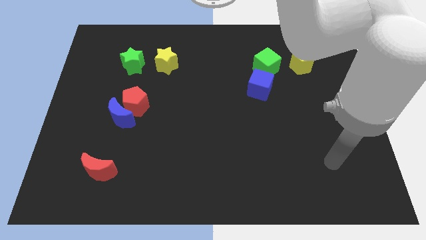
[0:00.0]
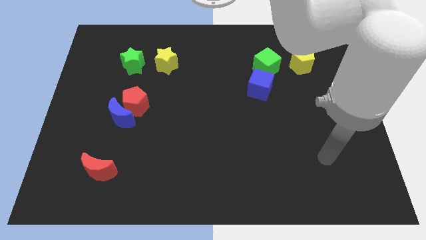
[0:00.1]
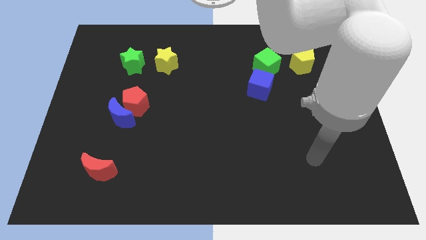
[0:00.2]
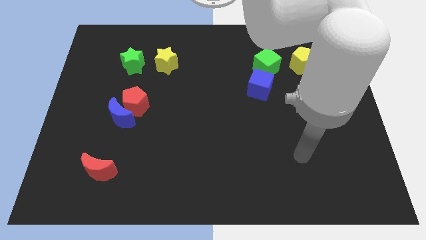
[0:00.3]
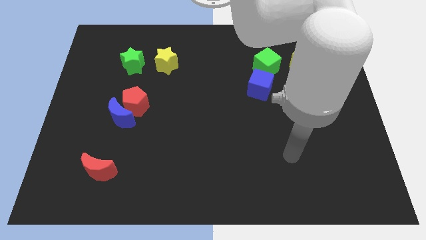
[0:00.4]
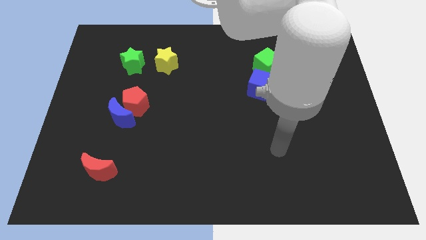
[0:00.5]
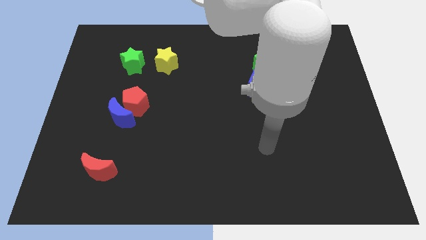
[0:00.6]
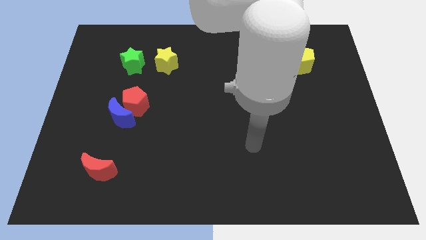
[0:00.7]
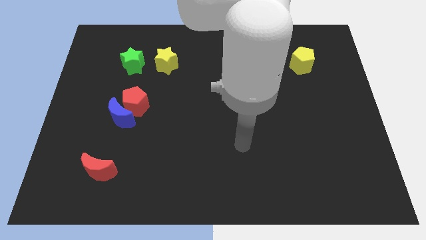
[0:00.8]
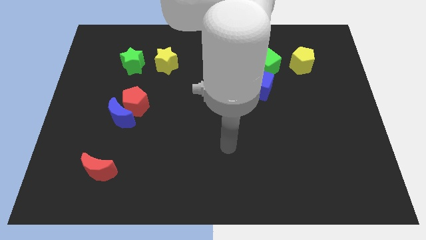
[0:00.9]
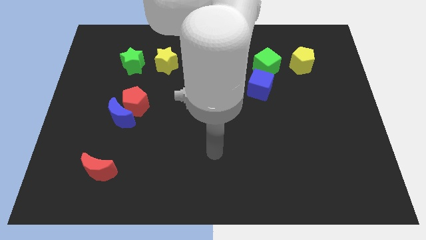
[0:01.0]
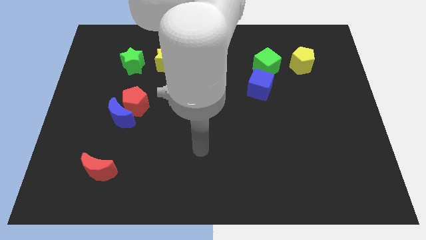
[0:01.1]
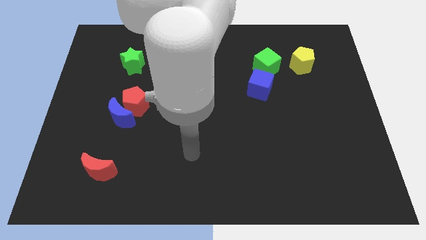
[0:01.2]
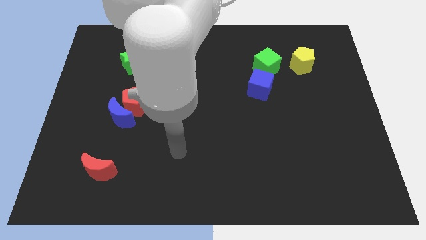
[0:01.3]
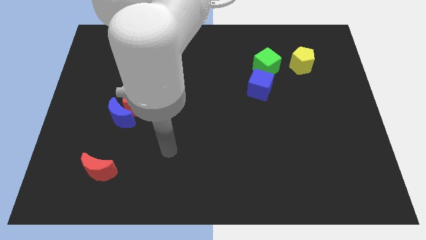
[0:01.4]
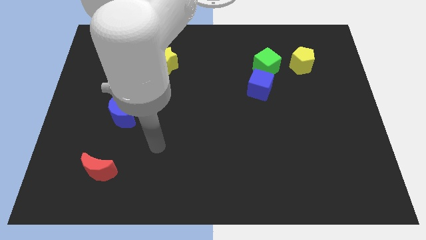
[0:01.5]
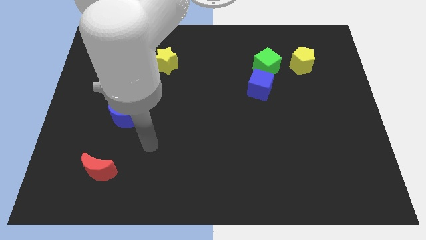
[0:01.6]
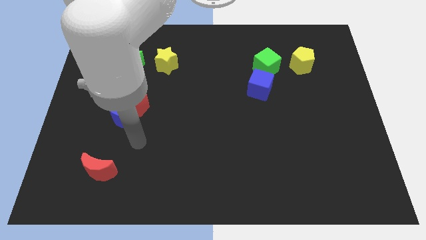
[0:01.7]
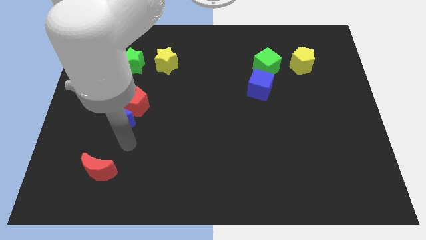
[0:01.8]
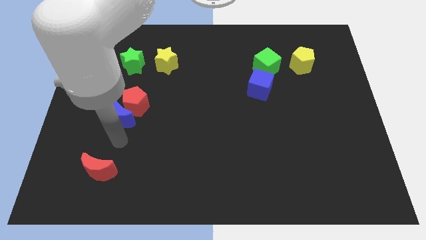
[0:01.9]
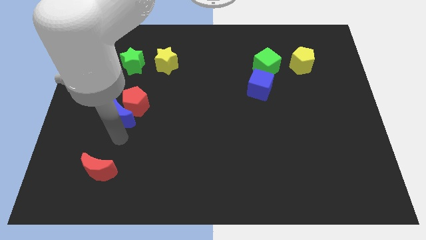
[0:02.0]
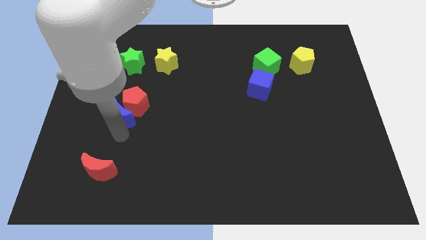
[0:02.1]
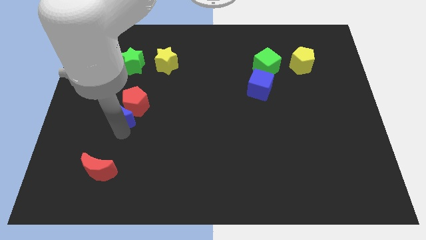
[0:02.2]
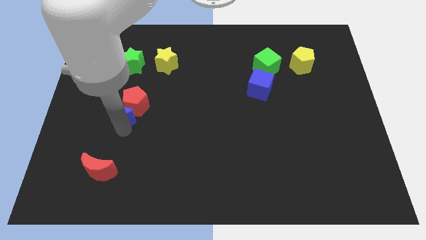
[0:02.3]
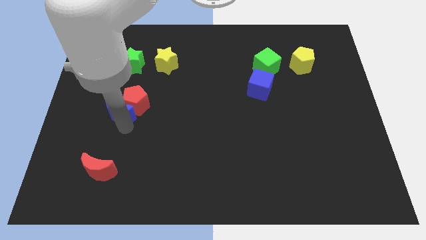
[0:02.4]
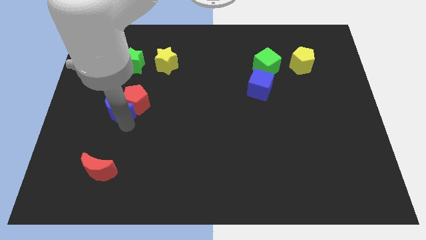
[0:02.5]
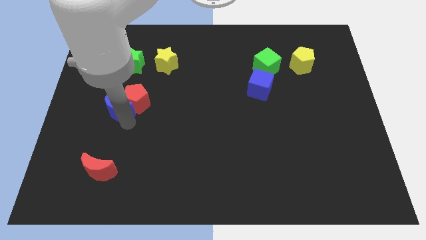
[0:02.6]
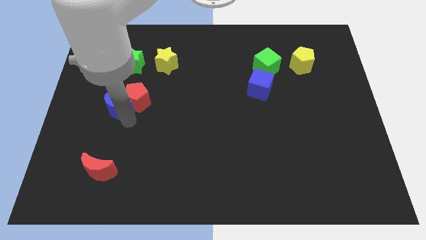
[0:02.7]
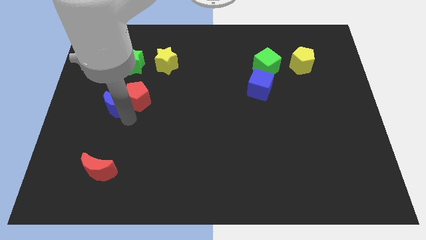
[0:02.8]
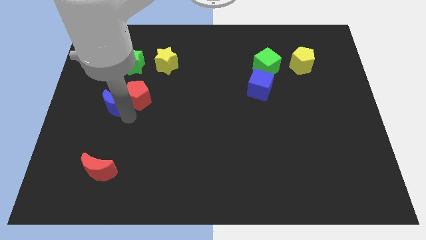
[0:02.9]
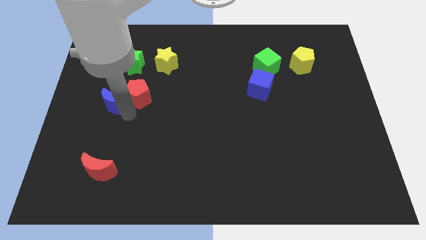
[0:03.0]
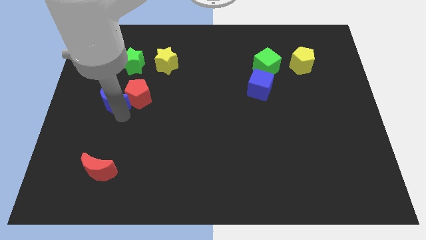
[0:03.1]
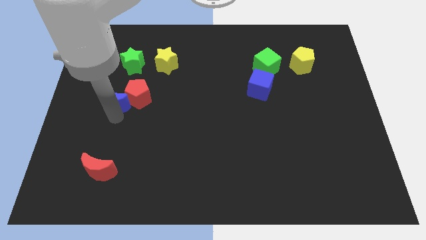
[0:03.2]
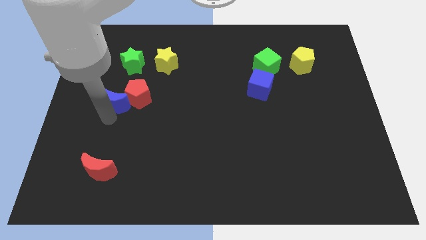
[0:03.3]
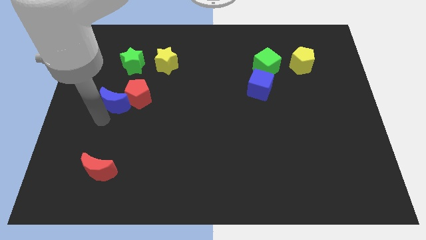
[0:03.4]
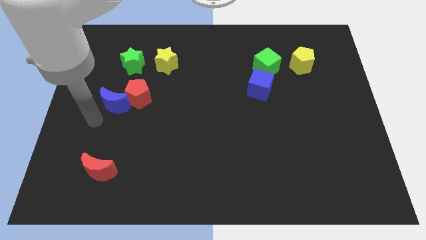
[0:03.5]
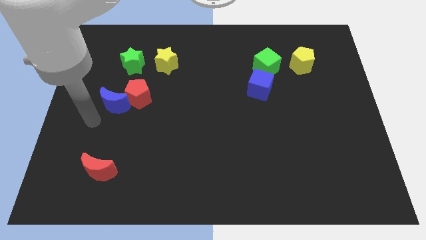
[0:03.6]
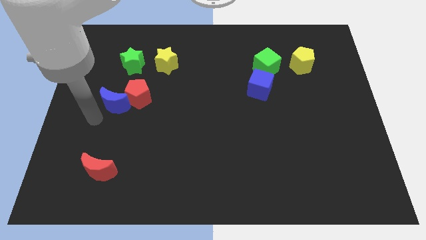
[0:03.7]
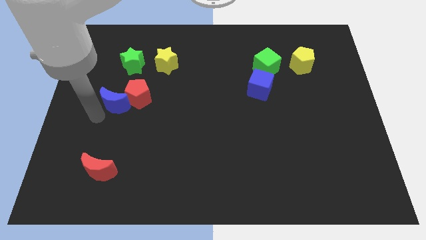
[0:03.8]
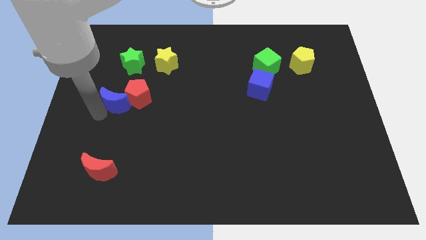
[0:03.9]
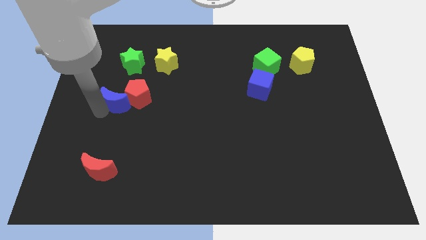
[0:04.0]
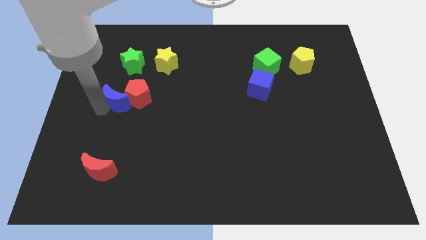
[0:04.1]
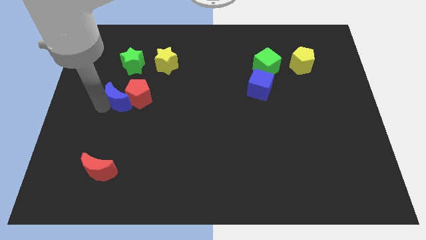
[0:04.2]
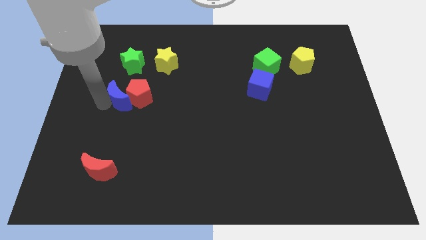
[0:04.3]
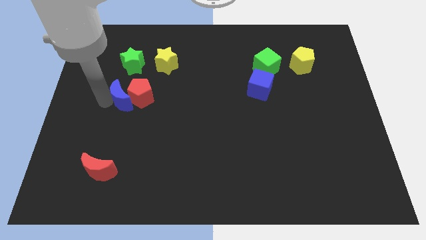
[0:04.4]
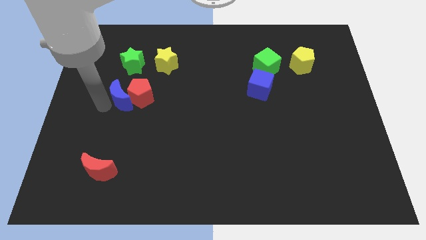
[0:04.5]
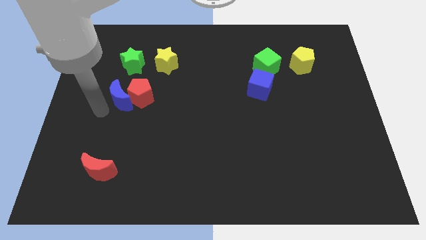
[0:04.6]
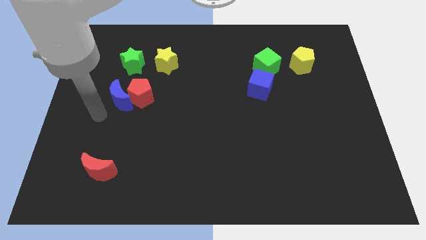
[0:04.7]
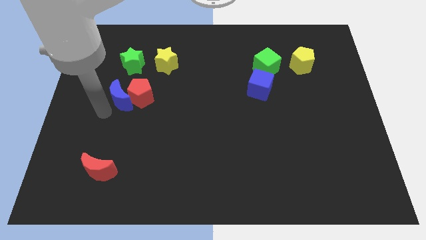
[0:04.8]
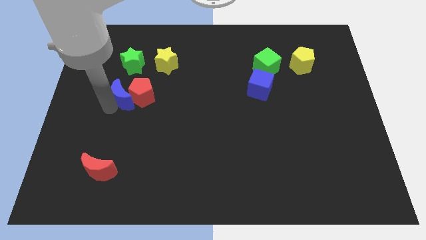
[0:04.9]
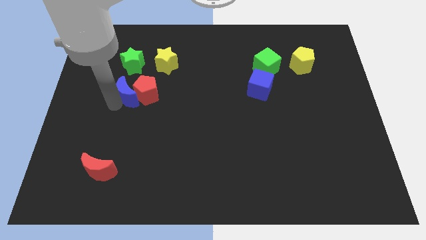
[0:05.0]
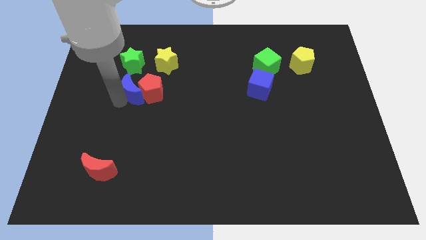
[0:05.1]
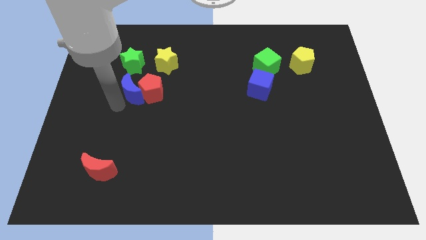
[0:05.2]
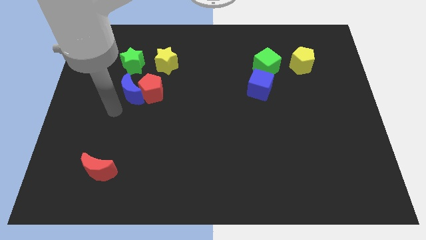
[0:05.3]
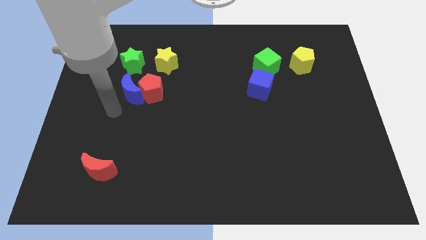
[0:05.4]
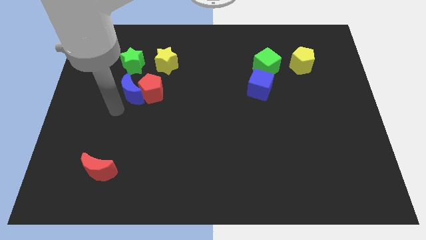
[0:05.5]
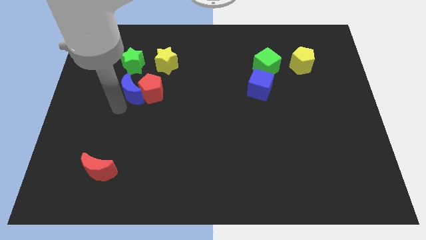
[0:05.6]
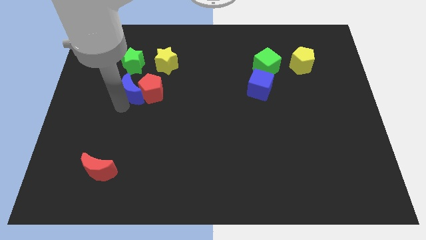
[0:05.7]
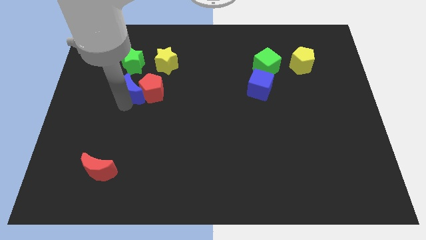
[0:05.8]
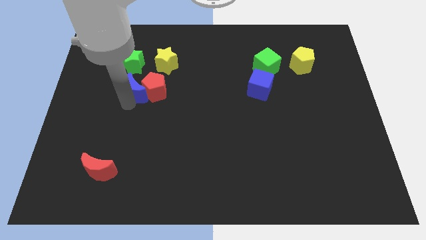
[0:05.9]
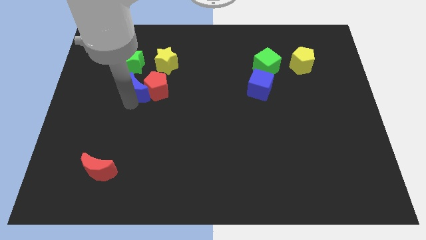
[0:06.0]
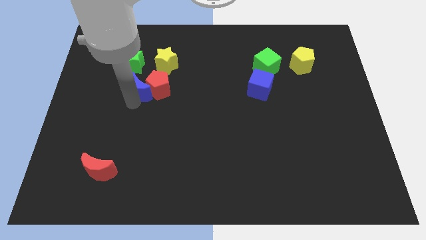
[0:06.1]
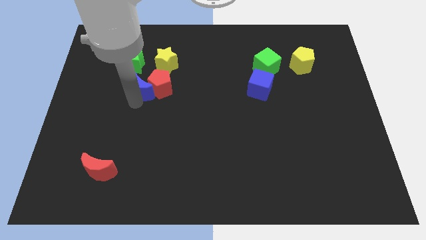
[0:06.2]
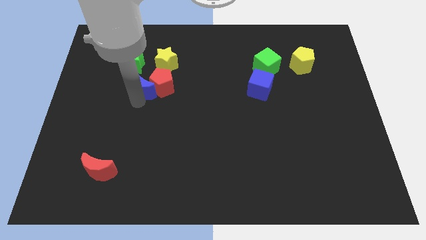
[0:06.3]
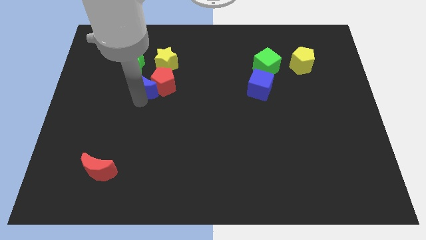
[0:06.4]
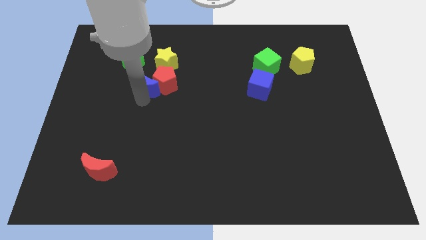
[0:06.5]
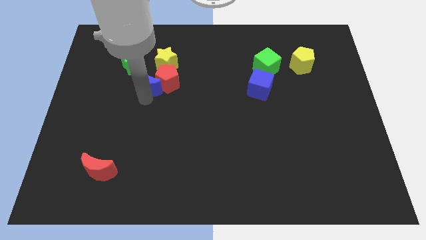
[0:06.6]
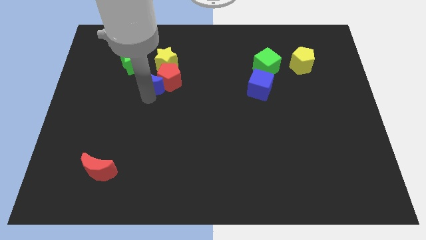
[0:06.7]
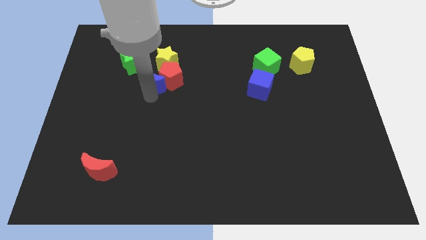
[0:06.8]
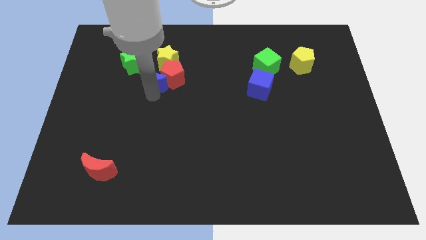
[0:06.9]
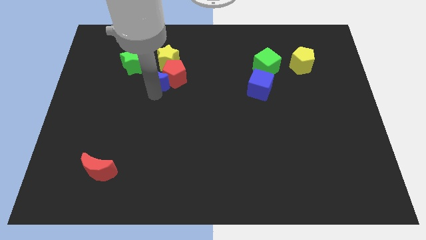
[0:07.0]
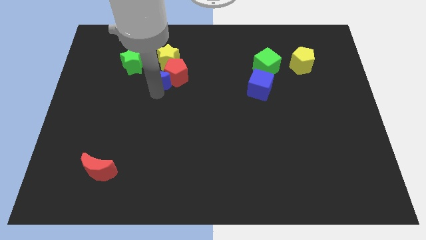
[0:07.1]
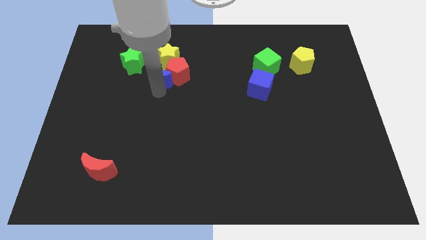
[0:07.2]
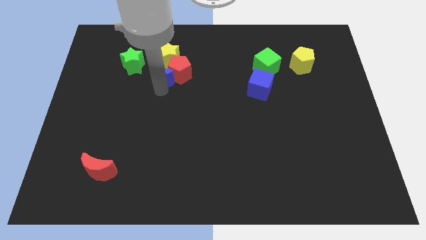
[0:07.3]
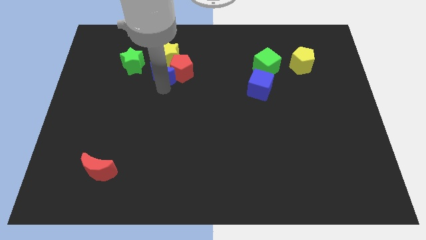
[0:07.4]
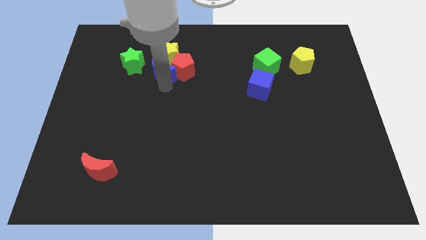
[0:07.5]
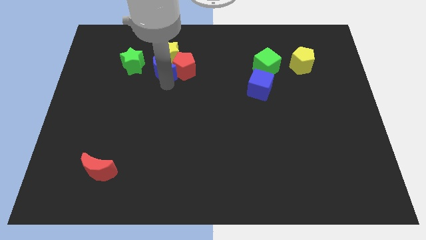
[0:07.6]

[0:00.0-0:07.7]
slide the blue moon towards the yellow star

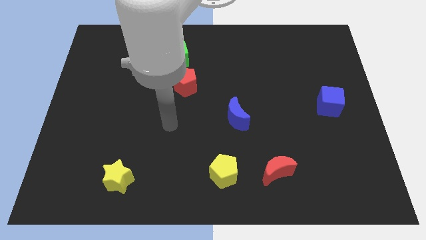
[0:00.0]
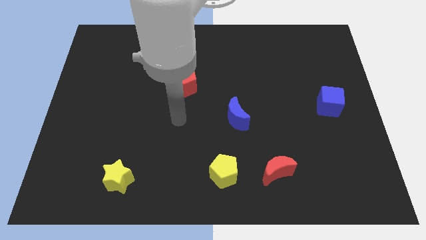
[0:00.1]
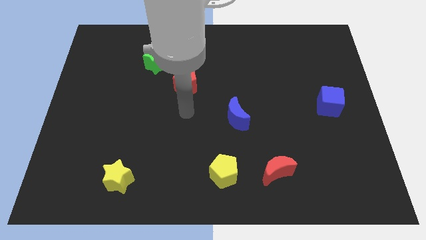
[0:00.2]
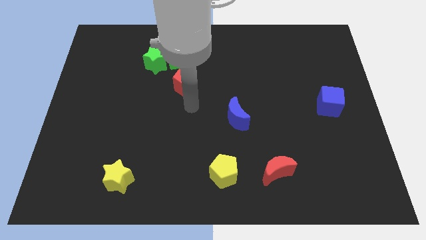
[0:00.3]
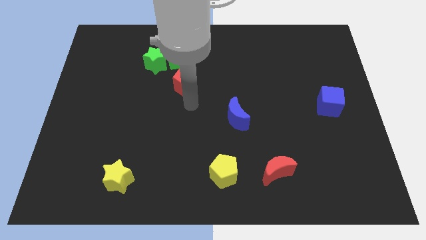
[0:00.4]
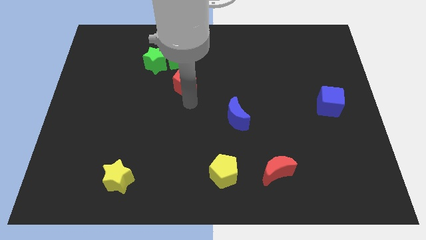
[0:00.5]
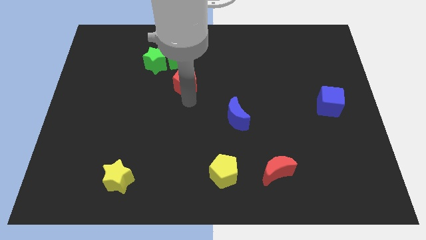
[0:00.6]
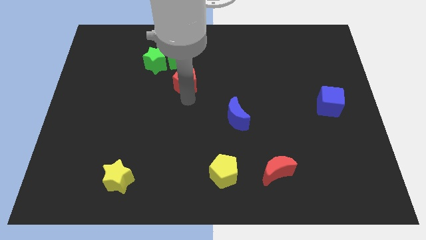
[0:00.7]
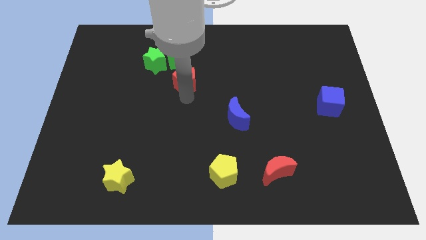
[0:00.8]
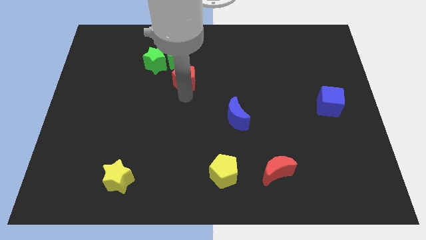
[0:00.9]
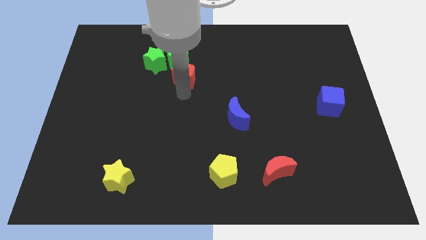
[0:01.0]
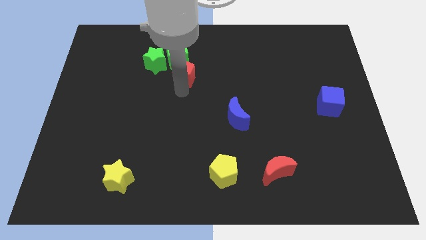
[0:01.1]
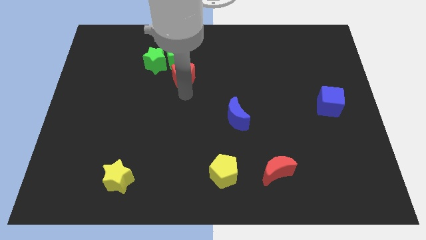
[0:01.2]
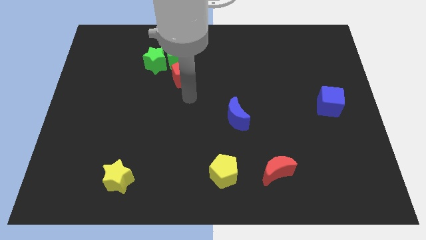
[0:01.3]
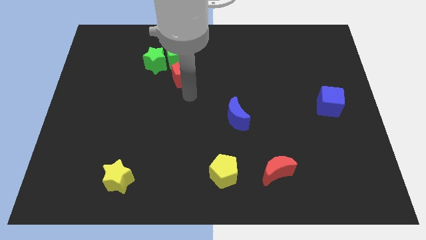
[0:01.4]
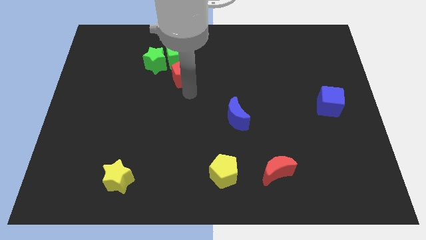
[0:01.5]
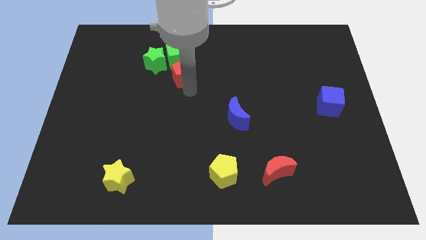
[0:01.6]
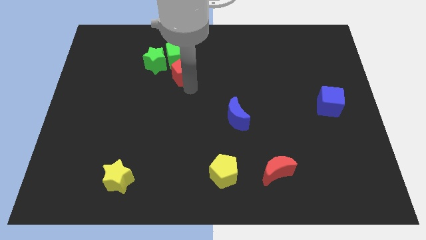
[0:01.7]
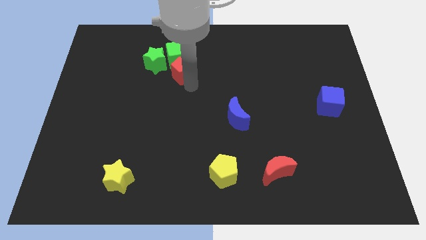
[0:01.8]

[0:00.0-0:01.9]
push the red pentagon to the green cube
